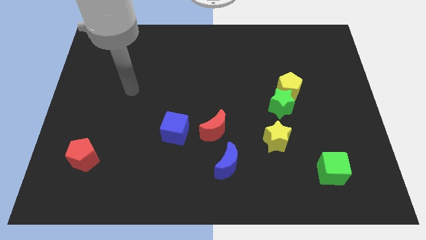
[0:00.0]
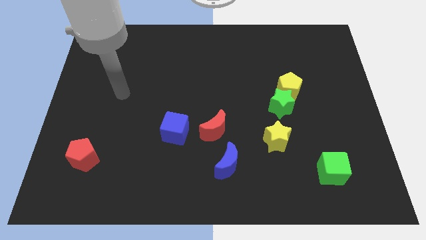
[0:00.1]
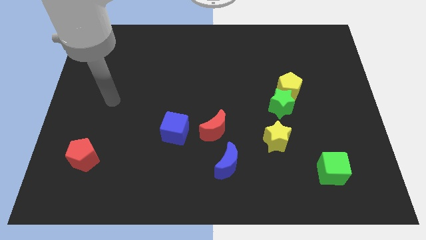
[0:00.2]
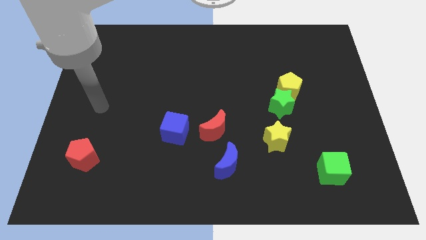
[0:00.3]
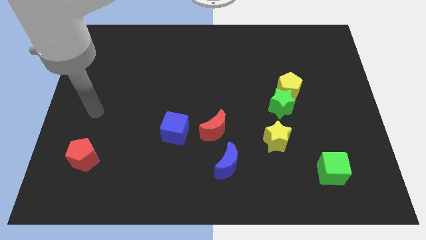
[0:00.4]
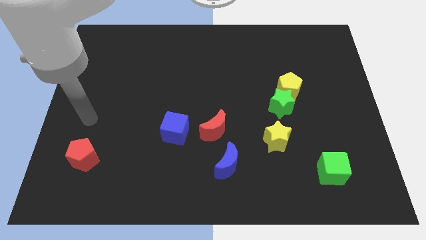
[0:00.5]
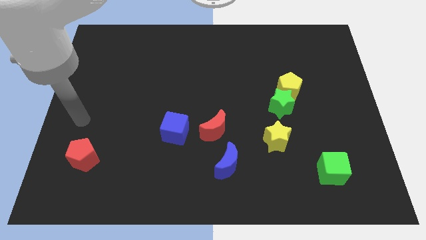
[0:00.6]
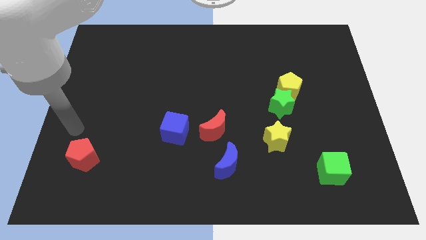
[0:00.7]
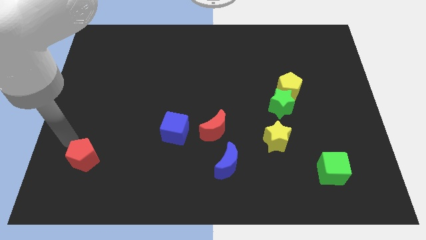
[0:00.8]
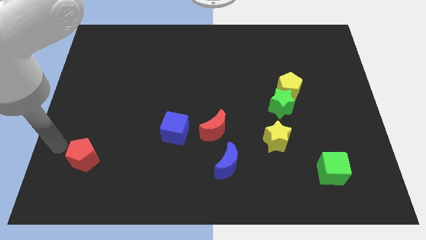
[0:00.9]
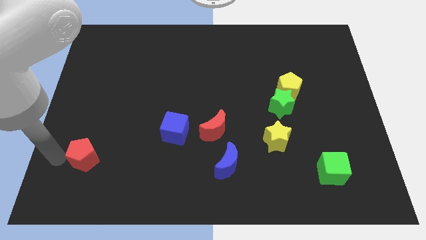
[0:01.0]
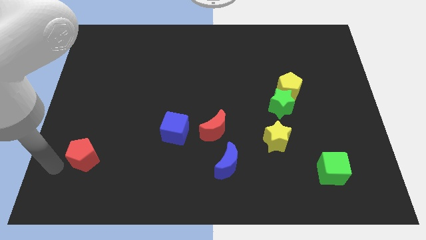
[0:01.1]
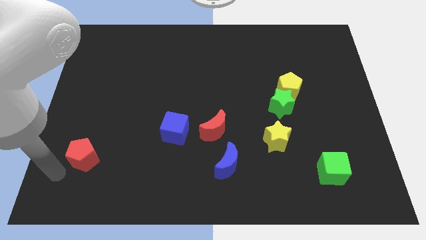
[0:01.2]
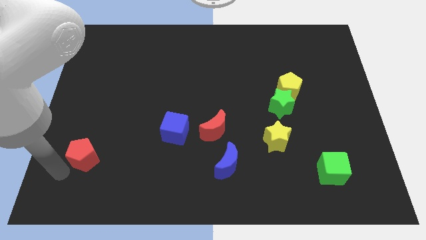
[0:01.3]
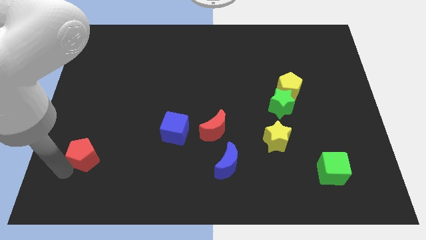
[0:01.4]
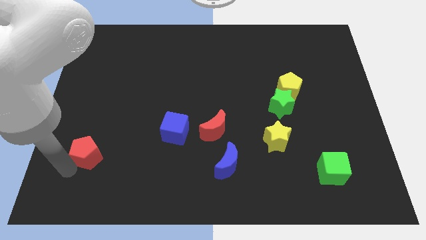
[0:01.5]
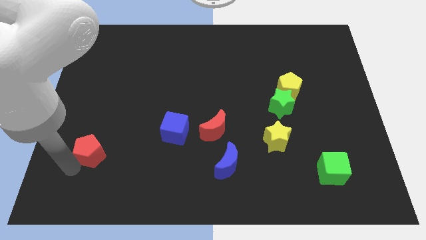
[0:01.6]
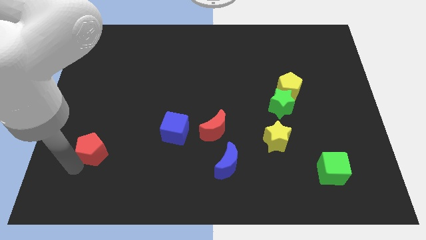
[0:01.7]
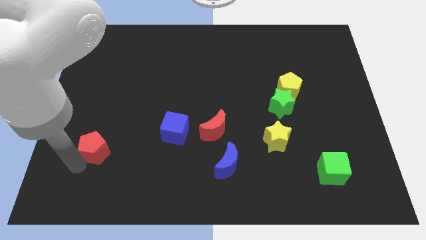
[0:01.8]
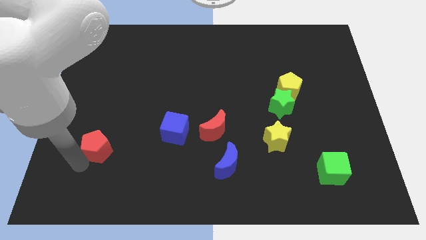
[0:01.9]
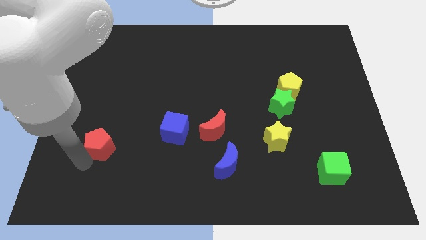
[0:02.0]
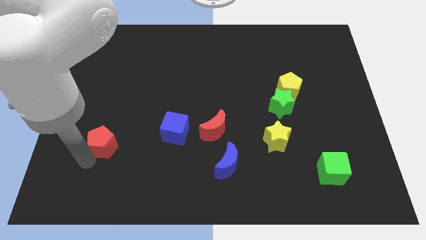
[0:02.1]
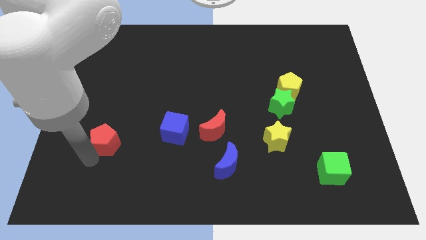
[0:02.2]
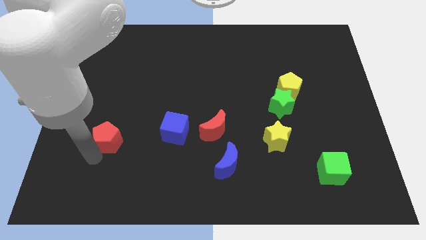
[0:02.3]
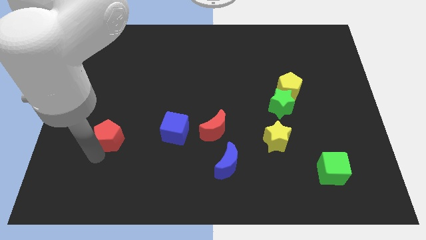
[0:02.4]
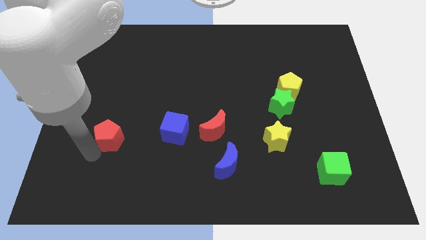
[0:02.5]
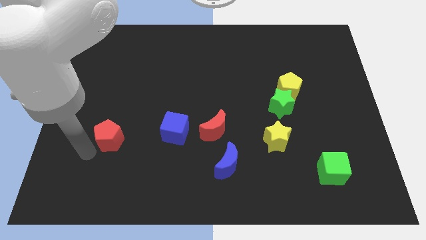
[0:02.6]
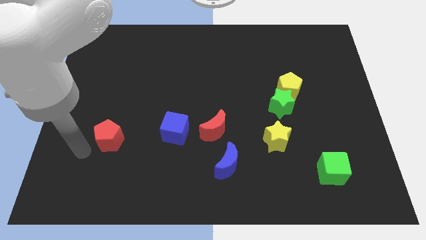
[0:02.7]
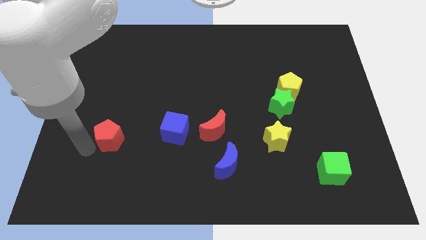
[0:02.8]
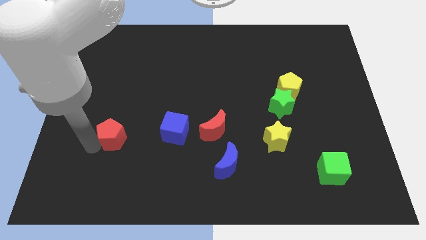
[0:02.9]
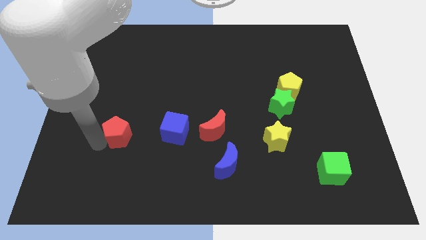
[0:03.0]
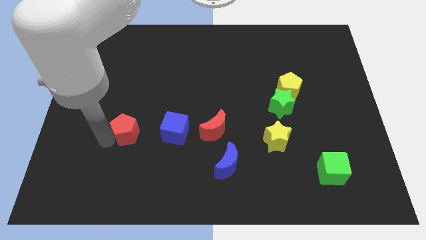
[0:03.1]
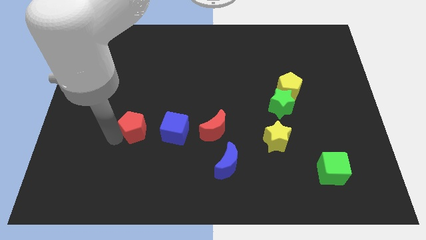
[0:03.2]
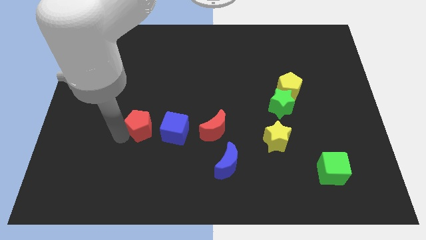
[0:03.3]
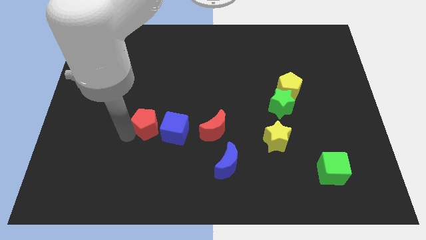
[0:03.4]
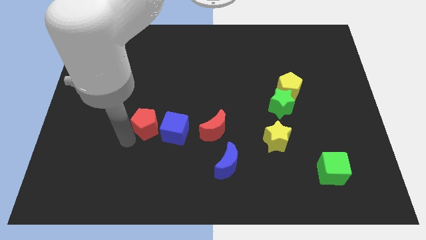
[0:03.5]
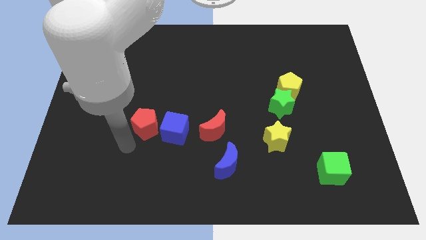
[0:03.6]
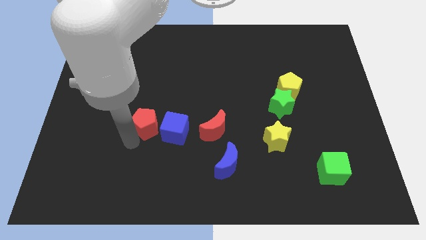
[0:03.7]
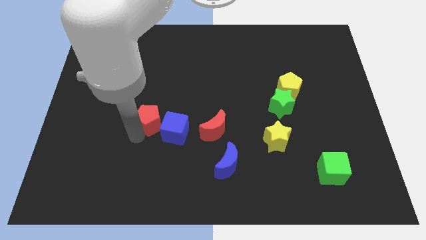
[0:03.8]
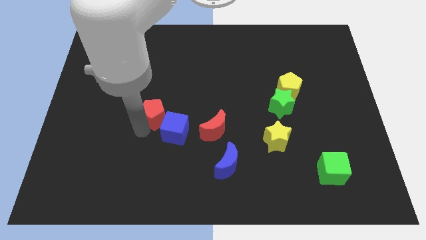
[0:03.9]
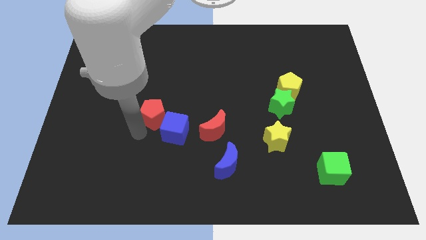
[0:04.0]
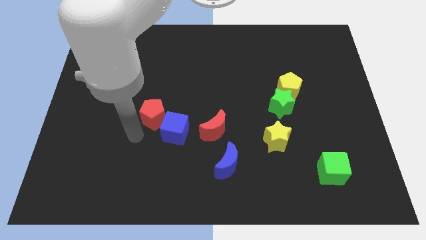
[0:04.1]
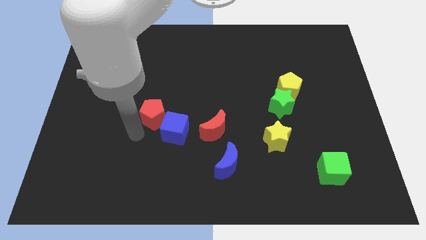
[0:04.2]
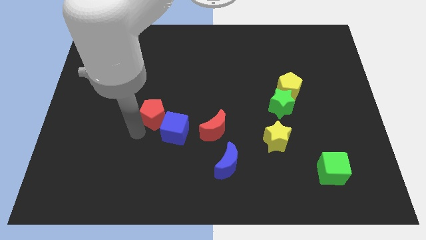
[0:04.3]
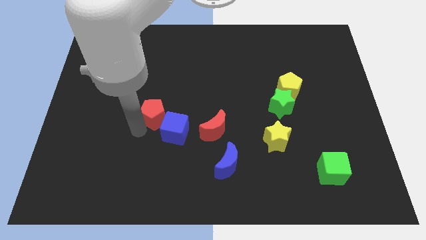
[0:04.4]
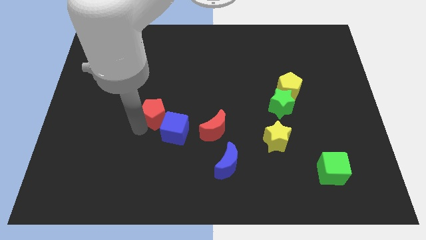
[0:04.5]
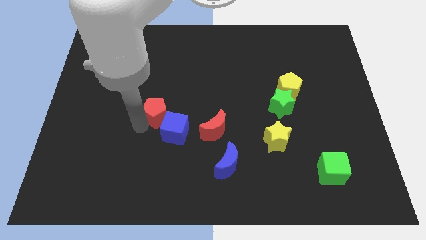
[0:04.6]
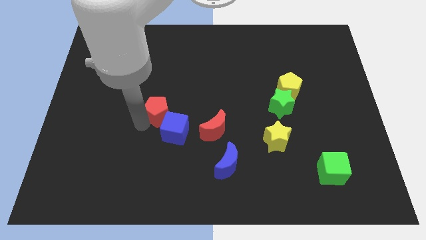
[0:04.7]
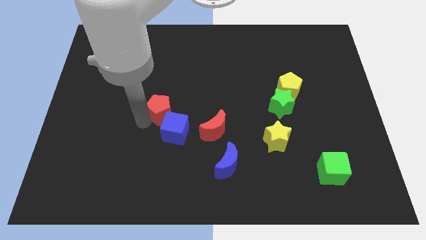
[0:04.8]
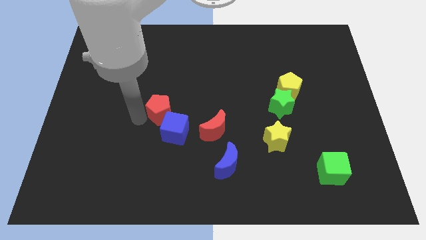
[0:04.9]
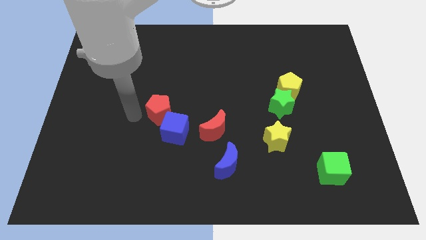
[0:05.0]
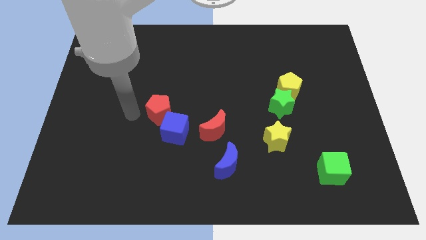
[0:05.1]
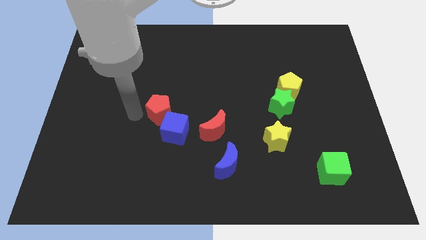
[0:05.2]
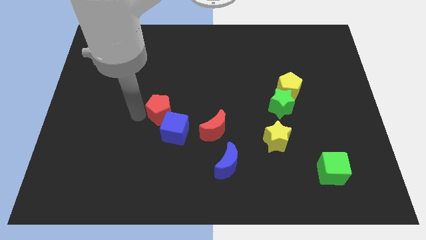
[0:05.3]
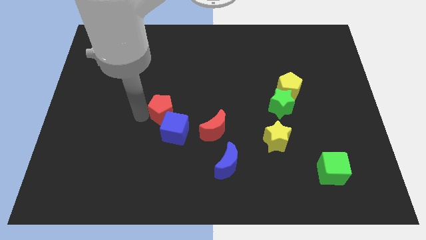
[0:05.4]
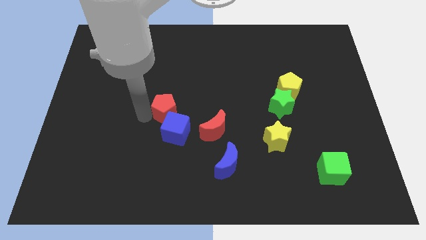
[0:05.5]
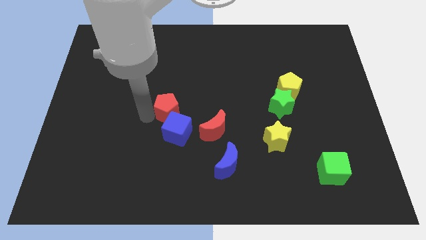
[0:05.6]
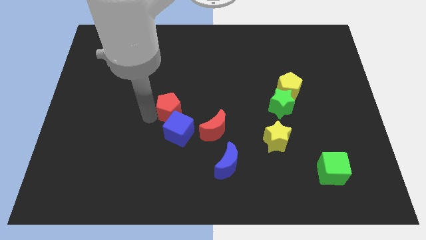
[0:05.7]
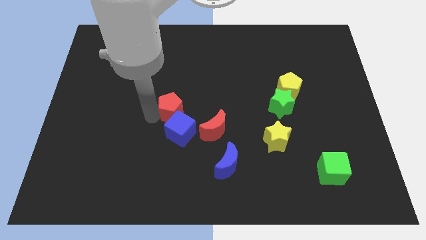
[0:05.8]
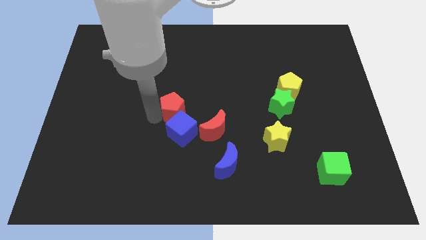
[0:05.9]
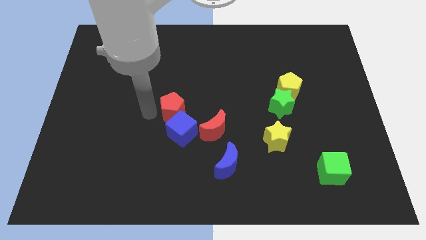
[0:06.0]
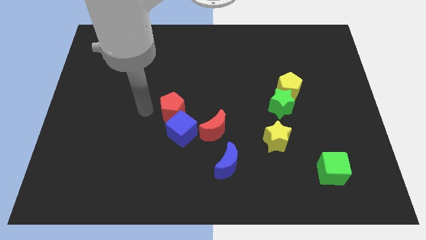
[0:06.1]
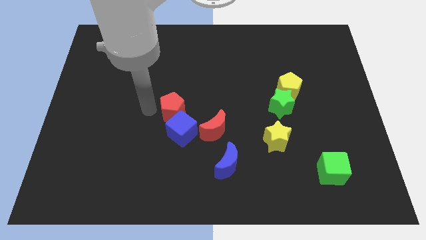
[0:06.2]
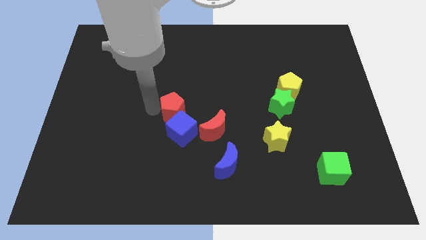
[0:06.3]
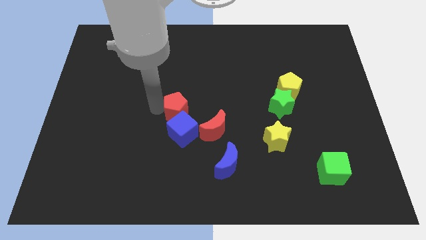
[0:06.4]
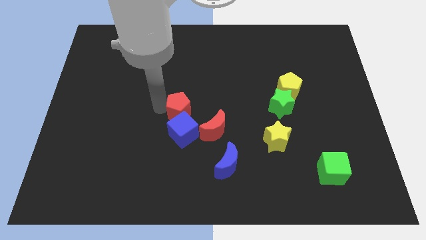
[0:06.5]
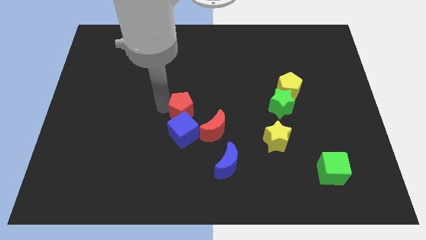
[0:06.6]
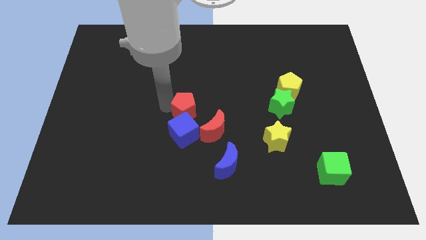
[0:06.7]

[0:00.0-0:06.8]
put the red pentagon to the top right side of the blue cube
